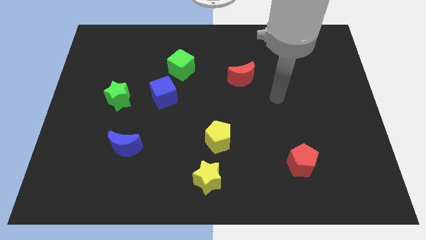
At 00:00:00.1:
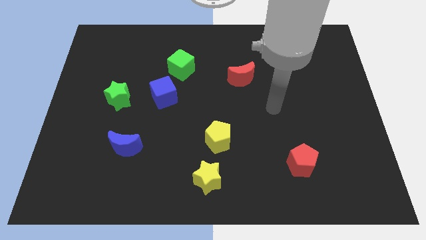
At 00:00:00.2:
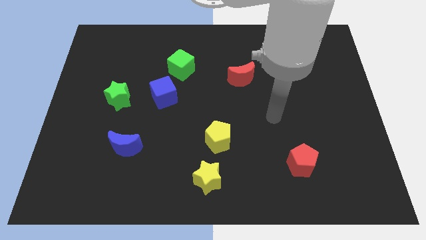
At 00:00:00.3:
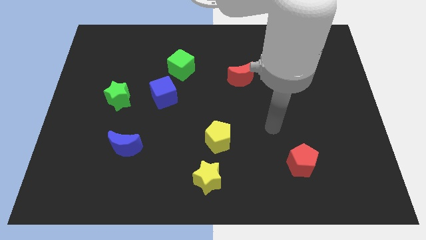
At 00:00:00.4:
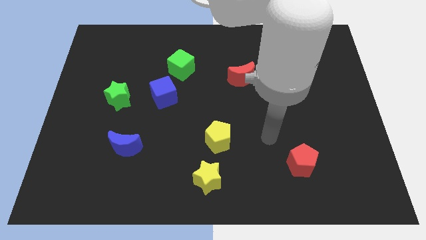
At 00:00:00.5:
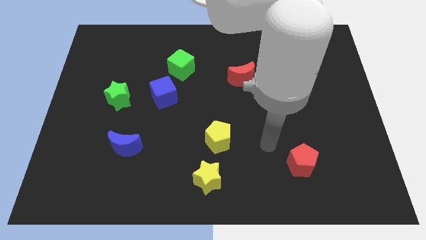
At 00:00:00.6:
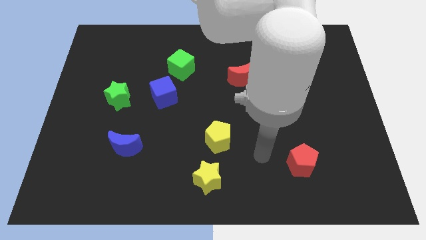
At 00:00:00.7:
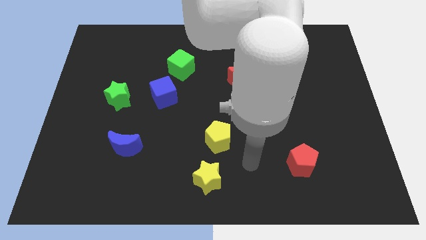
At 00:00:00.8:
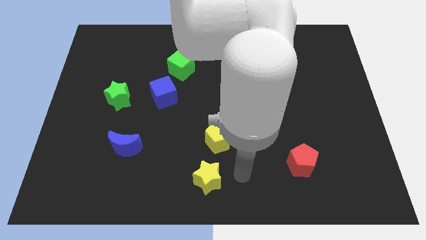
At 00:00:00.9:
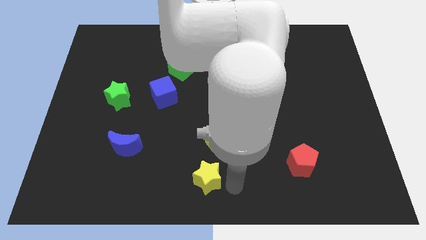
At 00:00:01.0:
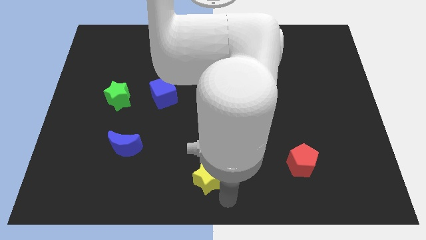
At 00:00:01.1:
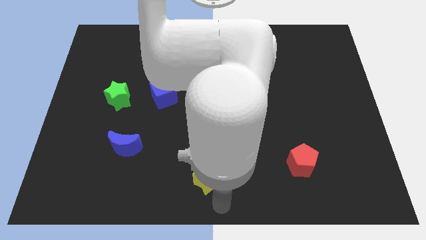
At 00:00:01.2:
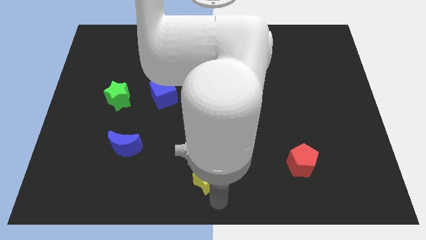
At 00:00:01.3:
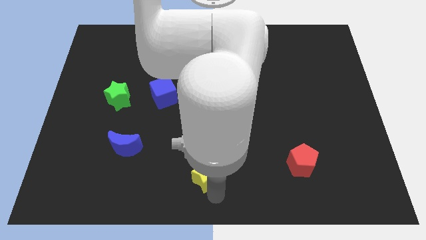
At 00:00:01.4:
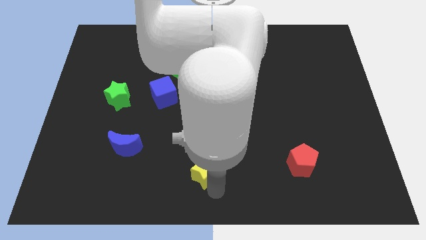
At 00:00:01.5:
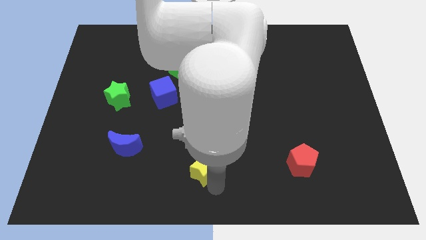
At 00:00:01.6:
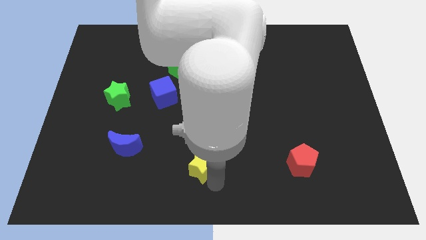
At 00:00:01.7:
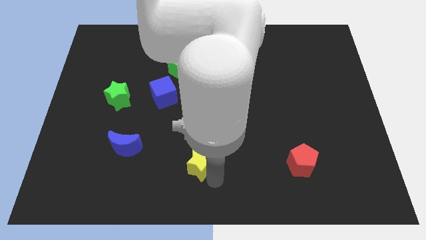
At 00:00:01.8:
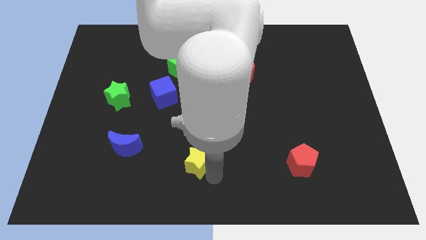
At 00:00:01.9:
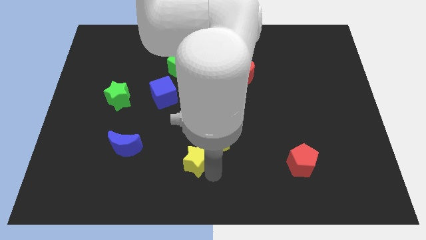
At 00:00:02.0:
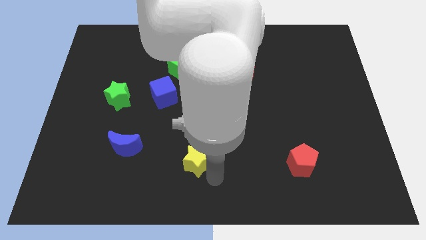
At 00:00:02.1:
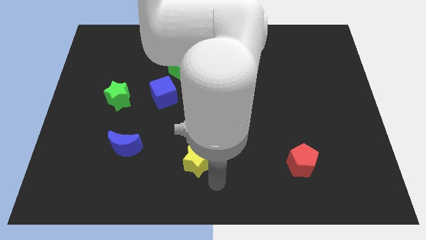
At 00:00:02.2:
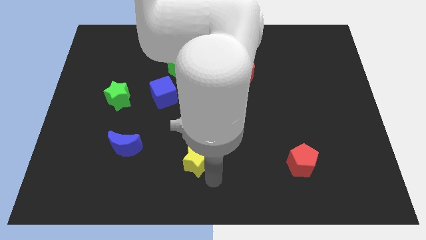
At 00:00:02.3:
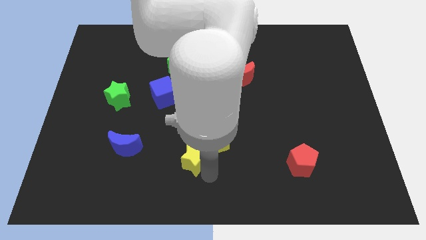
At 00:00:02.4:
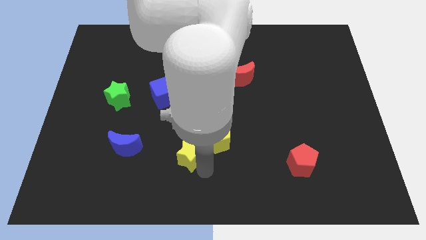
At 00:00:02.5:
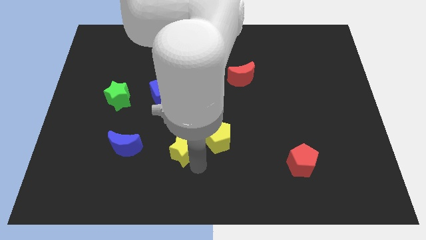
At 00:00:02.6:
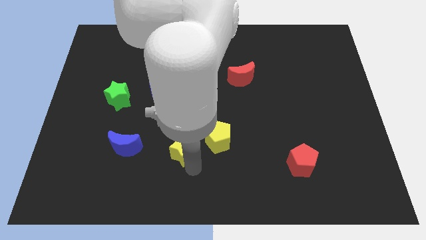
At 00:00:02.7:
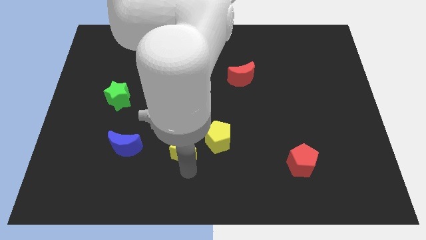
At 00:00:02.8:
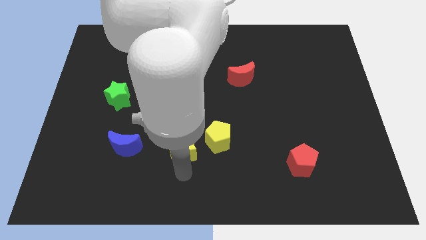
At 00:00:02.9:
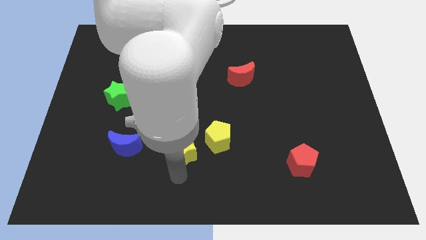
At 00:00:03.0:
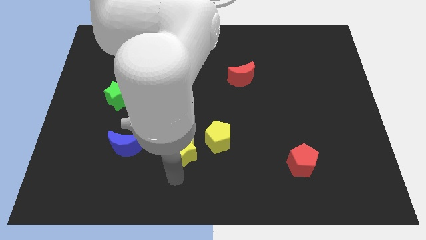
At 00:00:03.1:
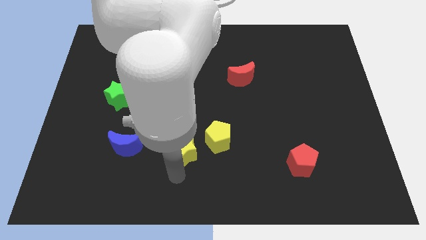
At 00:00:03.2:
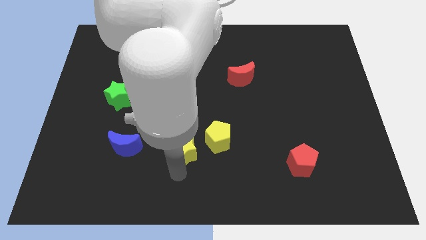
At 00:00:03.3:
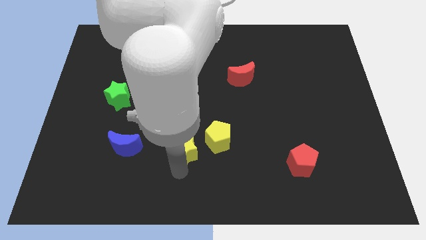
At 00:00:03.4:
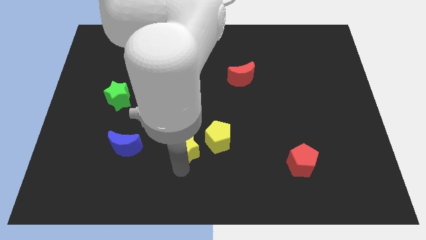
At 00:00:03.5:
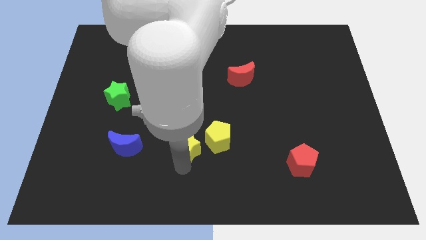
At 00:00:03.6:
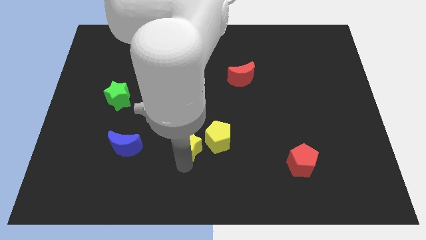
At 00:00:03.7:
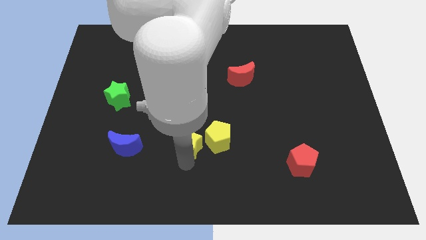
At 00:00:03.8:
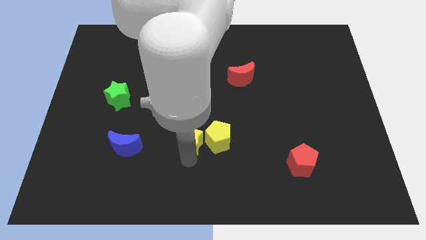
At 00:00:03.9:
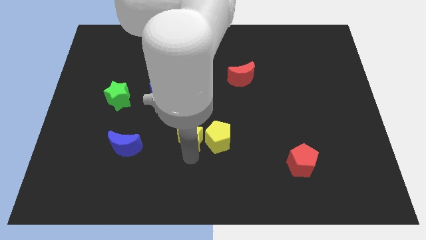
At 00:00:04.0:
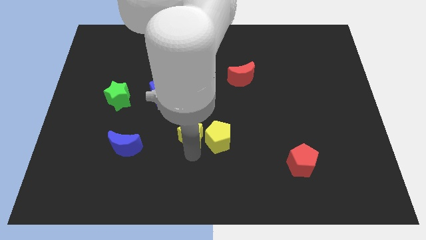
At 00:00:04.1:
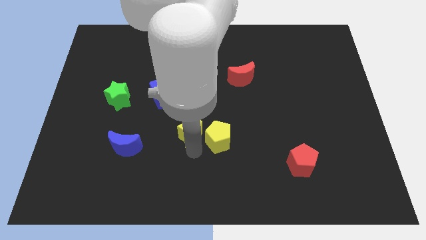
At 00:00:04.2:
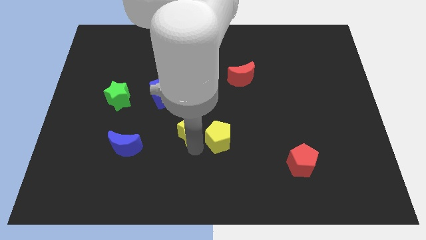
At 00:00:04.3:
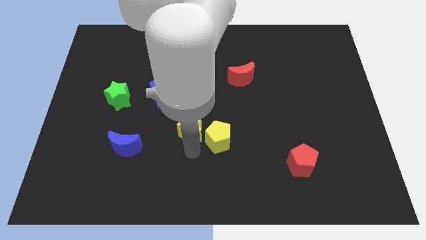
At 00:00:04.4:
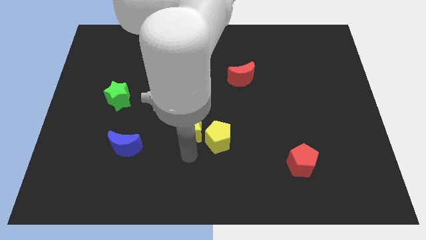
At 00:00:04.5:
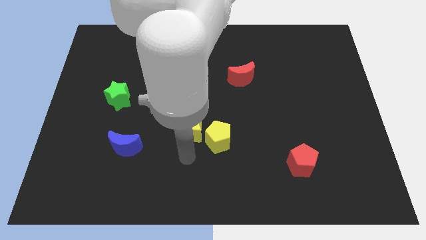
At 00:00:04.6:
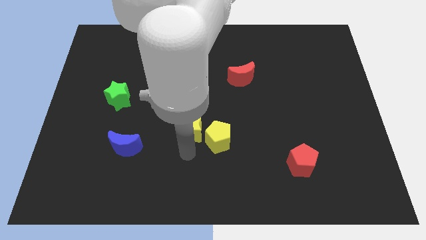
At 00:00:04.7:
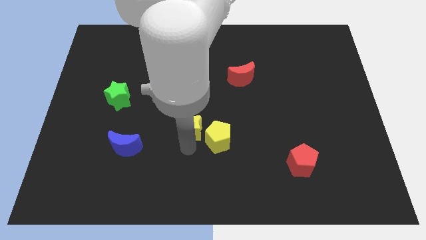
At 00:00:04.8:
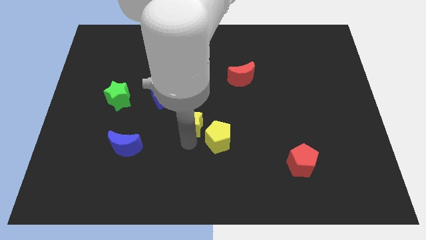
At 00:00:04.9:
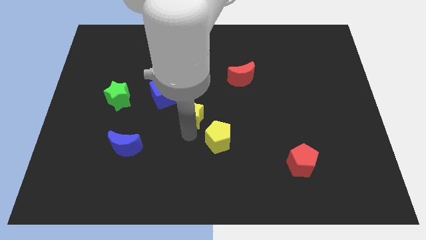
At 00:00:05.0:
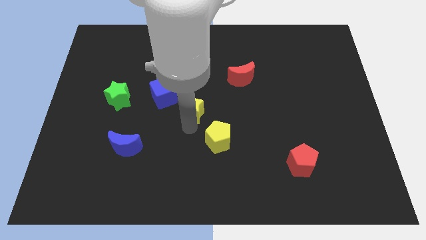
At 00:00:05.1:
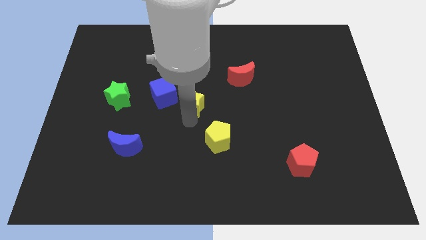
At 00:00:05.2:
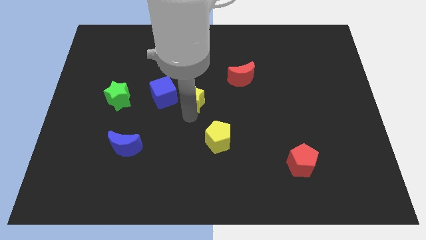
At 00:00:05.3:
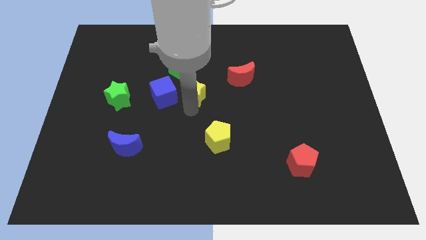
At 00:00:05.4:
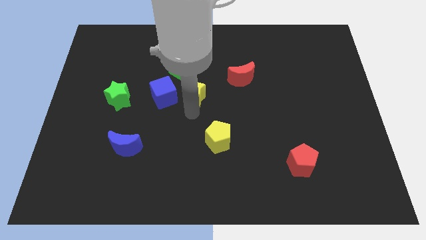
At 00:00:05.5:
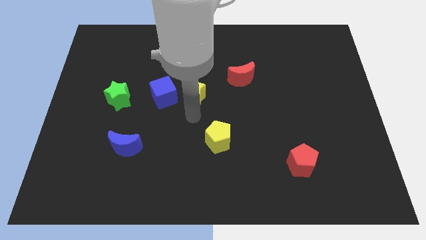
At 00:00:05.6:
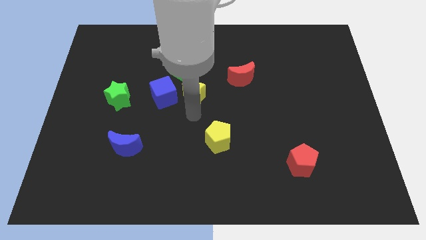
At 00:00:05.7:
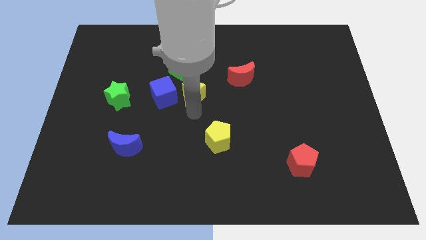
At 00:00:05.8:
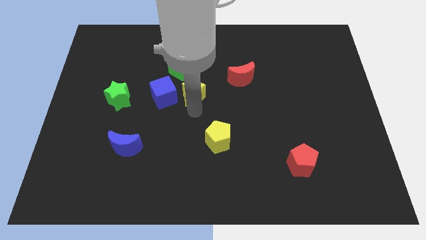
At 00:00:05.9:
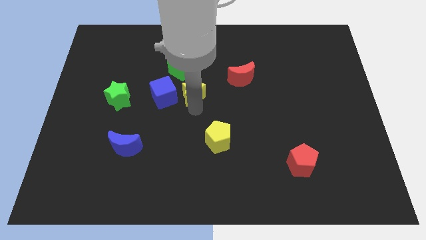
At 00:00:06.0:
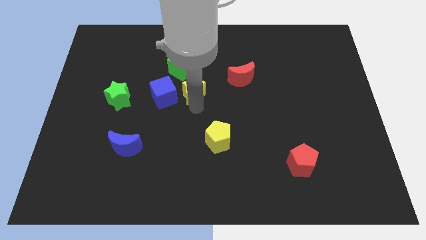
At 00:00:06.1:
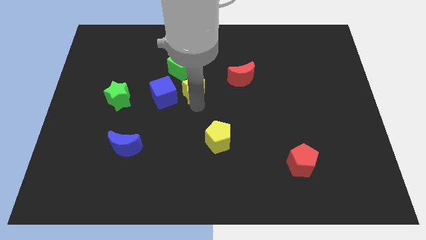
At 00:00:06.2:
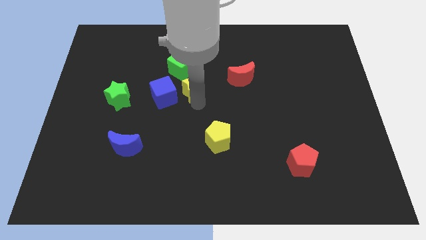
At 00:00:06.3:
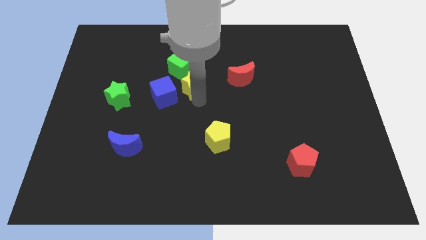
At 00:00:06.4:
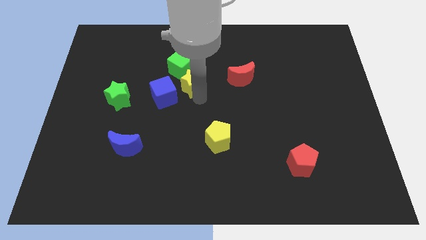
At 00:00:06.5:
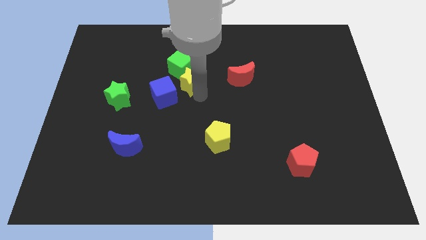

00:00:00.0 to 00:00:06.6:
slide the yellow star close to the green cube

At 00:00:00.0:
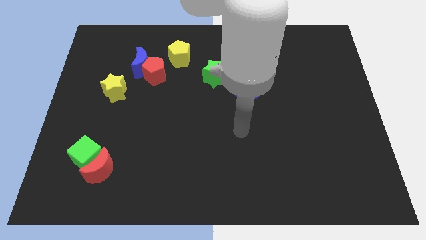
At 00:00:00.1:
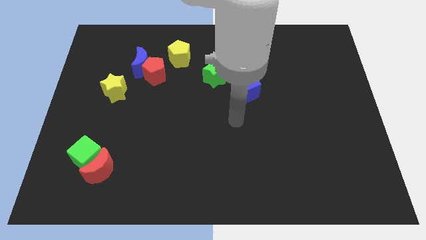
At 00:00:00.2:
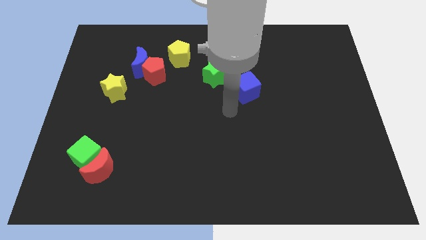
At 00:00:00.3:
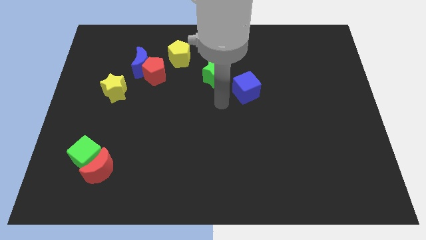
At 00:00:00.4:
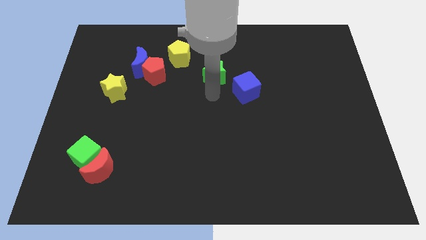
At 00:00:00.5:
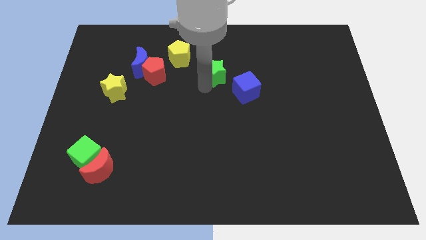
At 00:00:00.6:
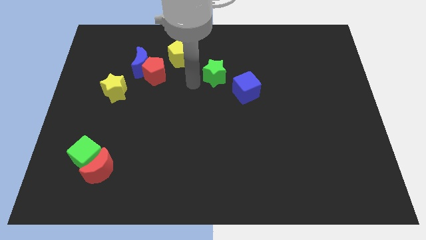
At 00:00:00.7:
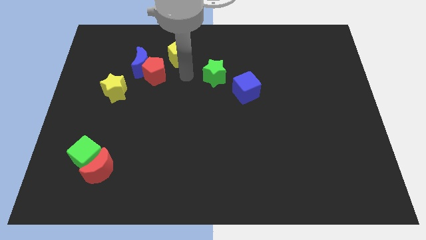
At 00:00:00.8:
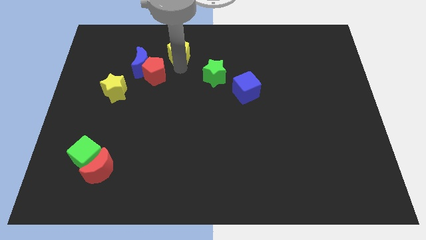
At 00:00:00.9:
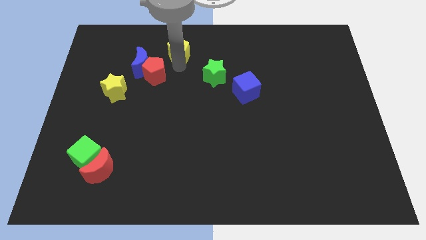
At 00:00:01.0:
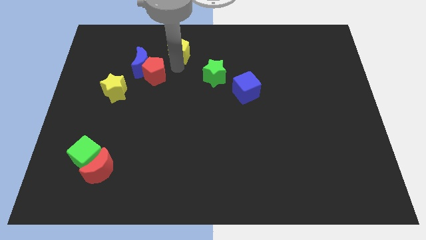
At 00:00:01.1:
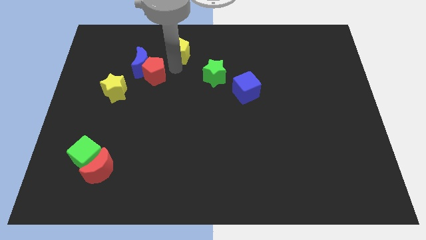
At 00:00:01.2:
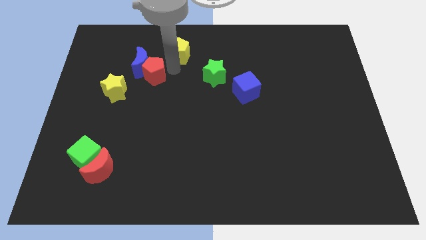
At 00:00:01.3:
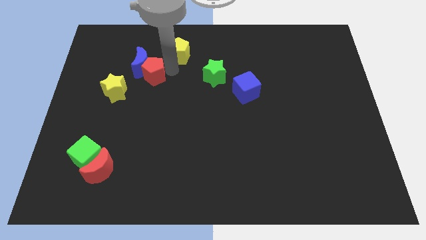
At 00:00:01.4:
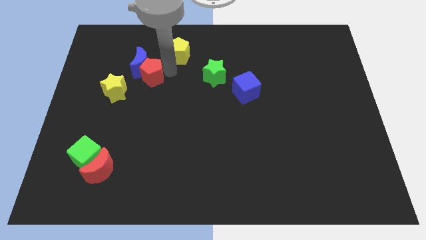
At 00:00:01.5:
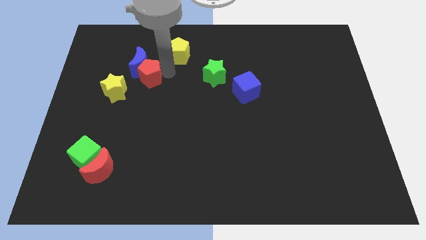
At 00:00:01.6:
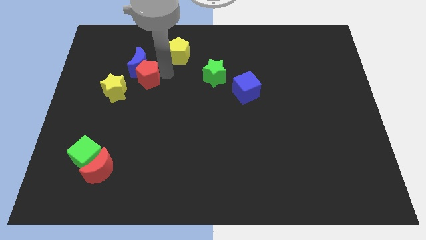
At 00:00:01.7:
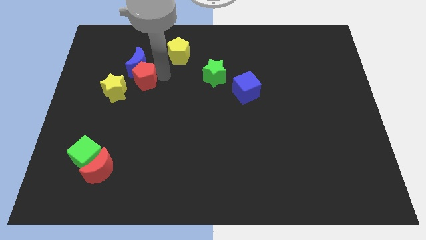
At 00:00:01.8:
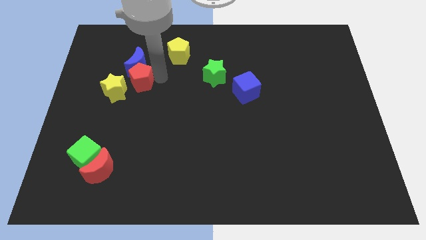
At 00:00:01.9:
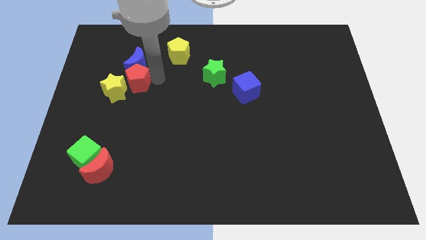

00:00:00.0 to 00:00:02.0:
put the red pentagon close to the yellow star
